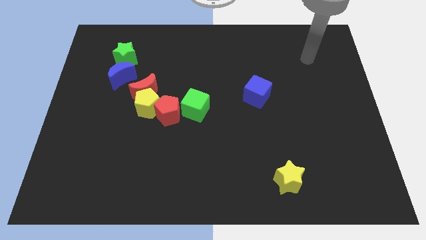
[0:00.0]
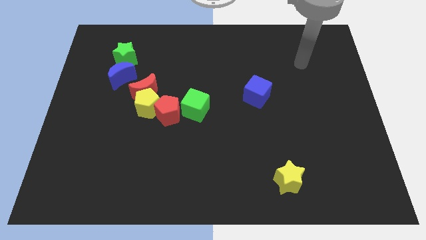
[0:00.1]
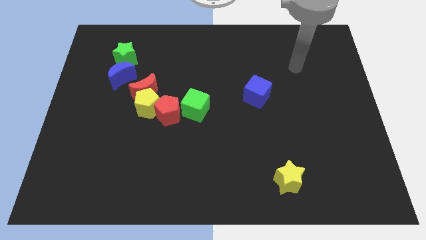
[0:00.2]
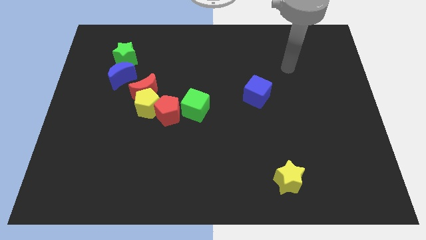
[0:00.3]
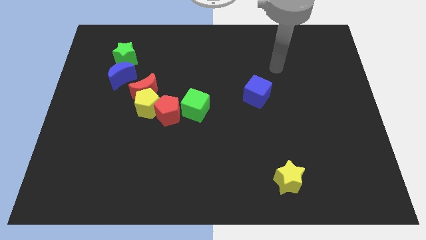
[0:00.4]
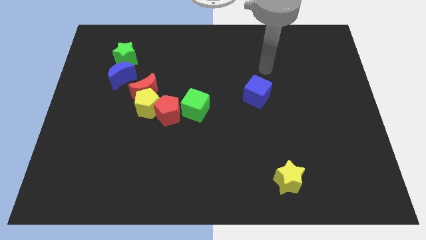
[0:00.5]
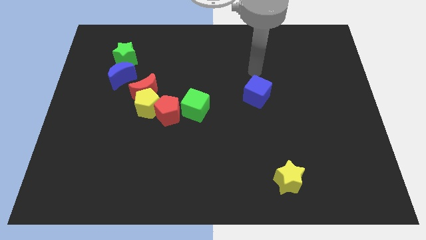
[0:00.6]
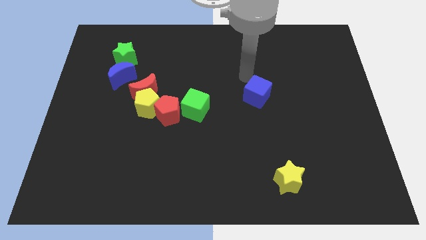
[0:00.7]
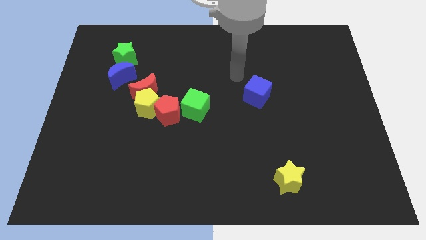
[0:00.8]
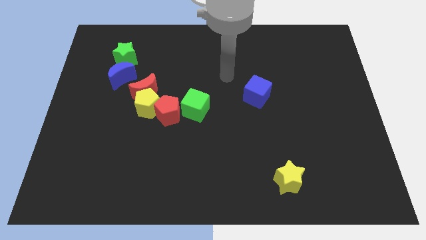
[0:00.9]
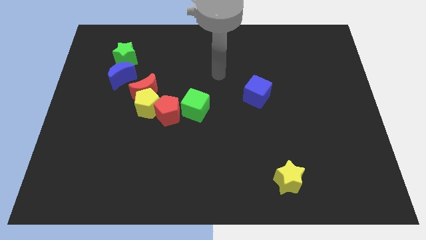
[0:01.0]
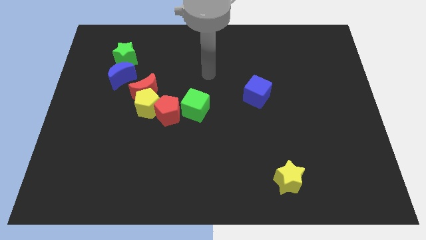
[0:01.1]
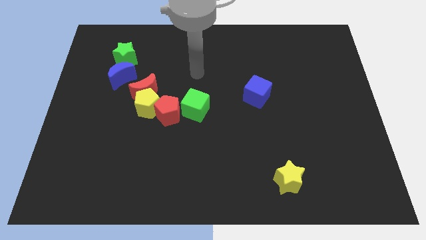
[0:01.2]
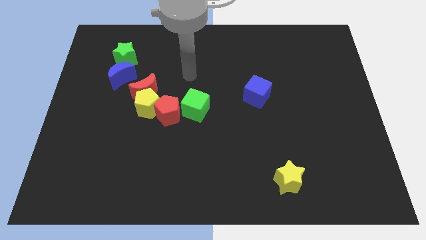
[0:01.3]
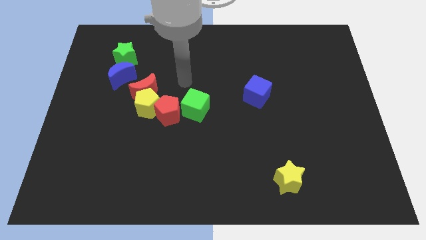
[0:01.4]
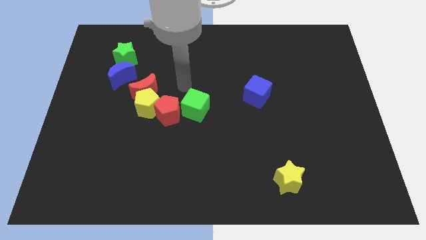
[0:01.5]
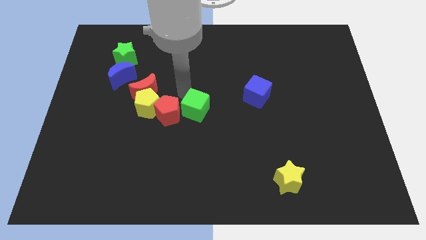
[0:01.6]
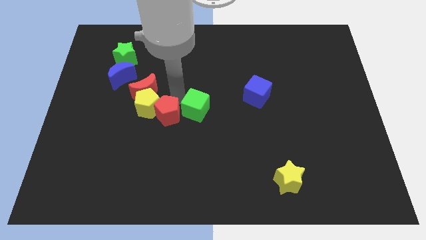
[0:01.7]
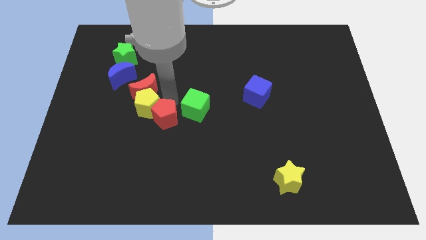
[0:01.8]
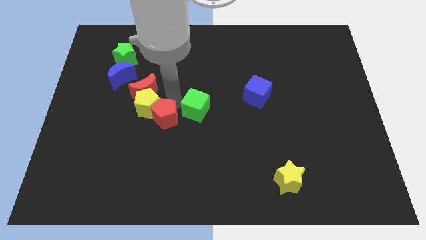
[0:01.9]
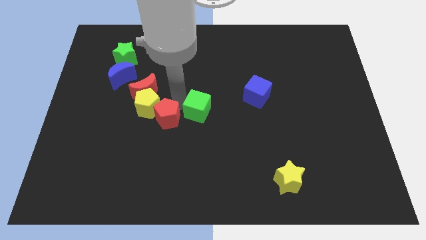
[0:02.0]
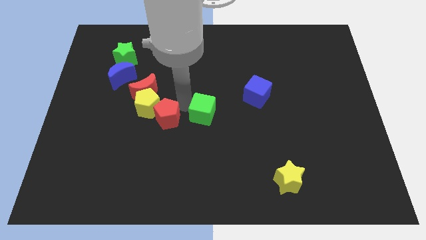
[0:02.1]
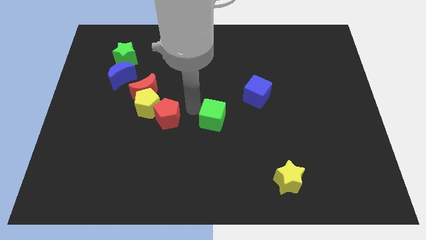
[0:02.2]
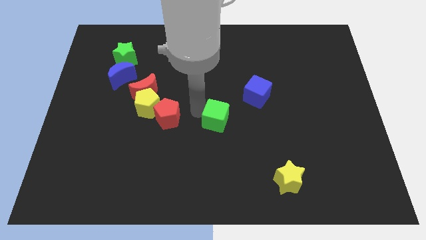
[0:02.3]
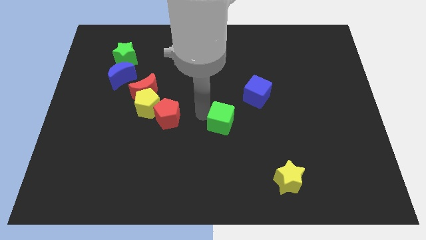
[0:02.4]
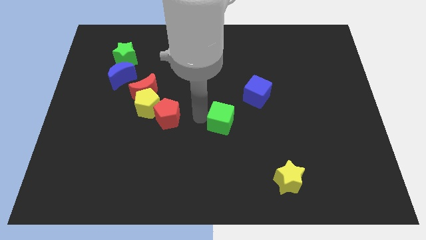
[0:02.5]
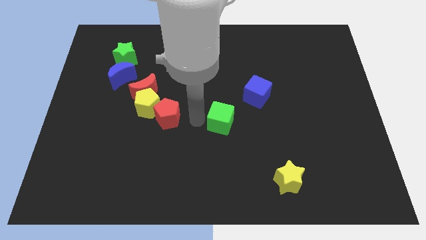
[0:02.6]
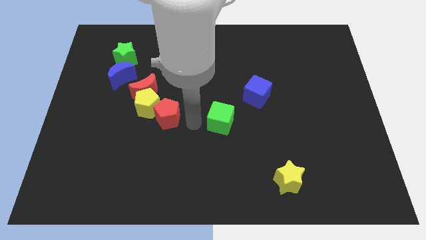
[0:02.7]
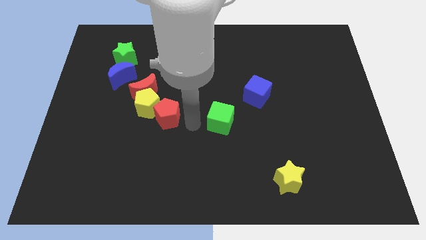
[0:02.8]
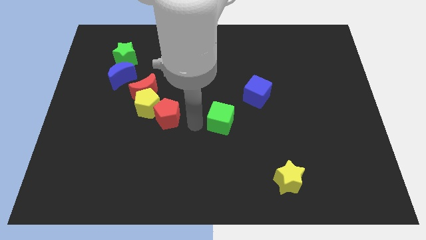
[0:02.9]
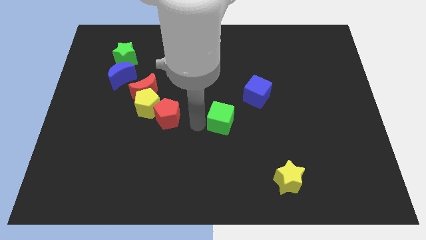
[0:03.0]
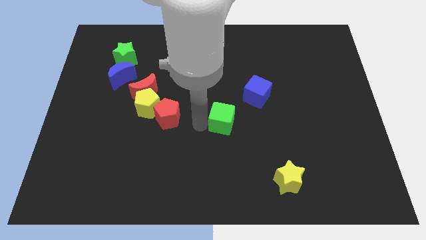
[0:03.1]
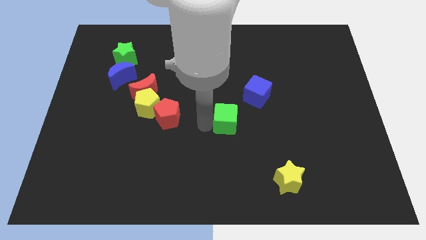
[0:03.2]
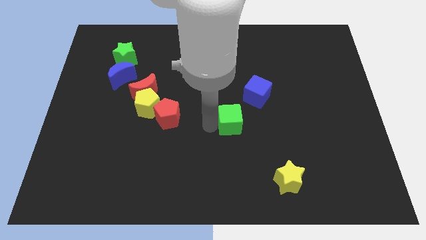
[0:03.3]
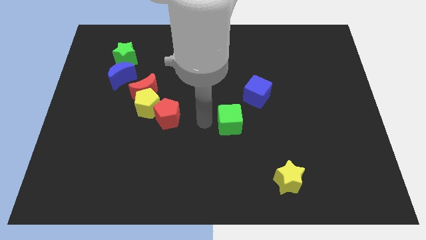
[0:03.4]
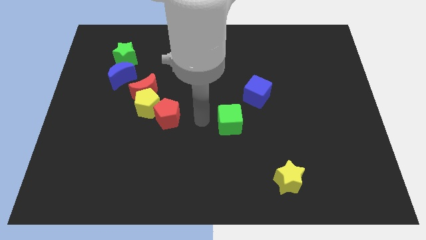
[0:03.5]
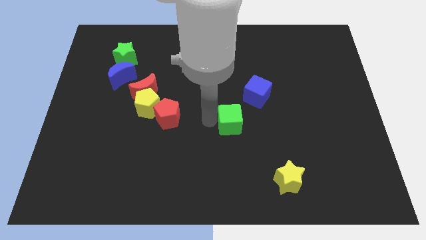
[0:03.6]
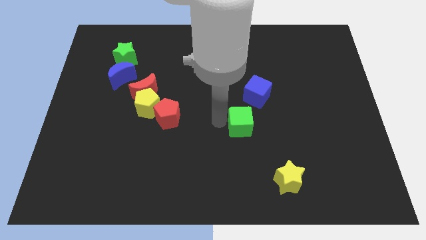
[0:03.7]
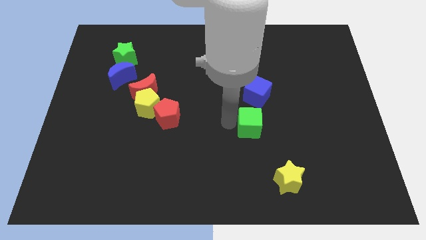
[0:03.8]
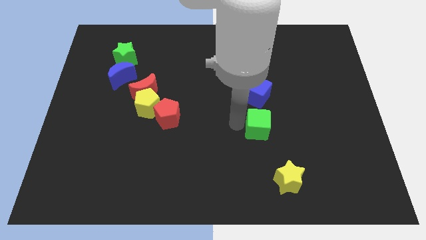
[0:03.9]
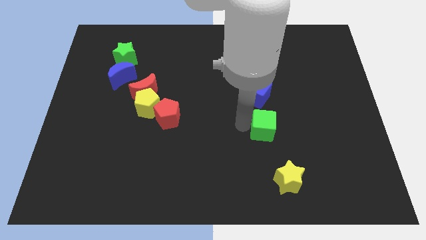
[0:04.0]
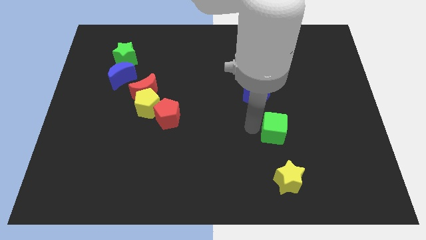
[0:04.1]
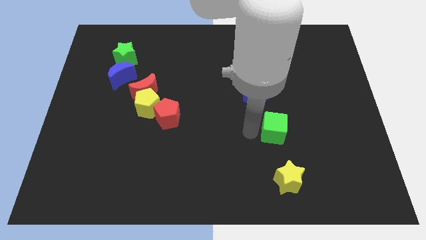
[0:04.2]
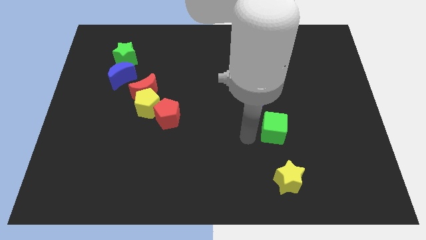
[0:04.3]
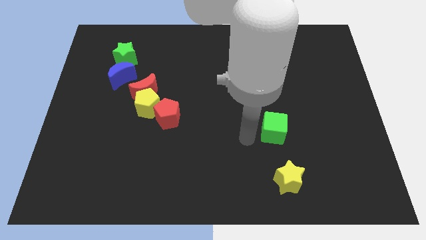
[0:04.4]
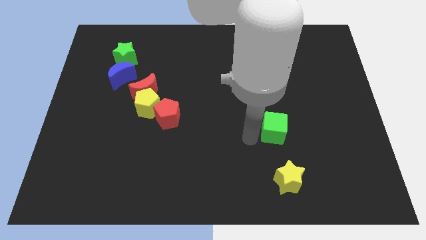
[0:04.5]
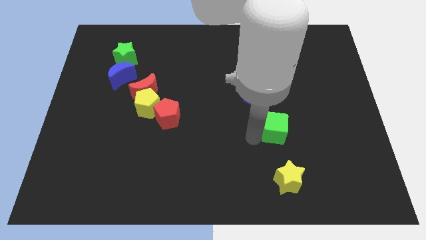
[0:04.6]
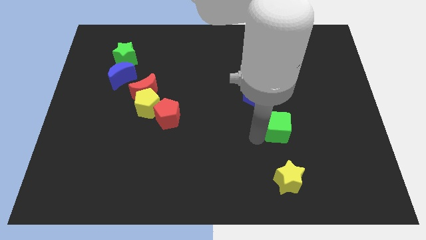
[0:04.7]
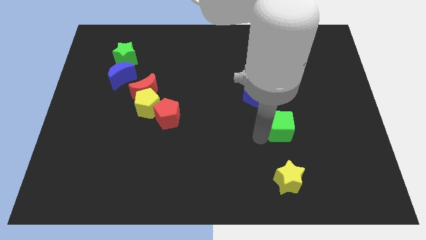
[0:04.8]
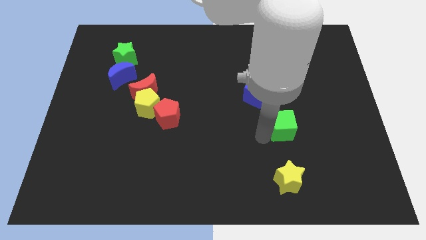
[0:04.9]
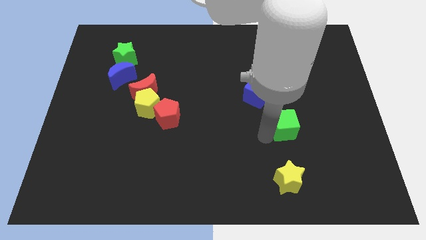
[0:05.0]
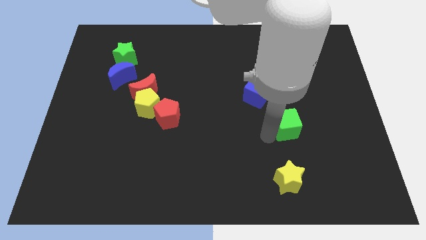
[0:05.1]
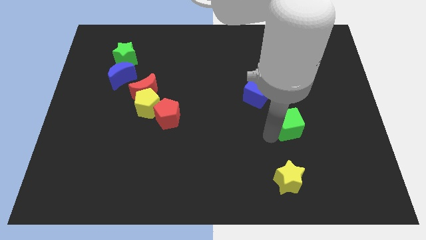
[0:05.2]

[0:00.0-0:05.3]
slide the green cube to the right

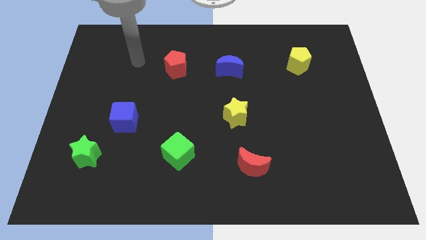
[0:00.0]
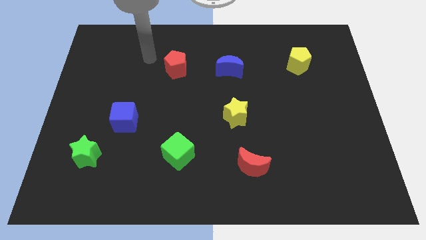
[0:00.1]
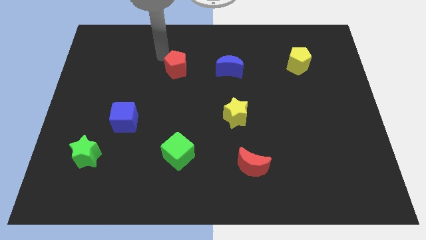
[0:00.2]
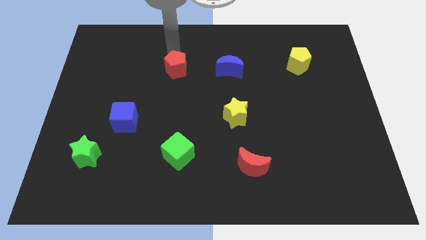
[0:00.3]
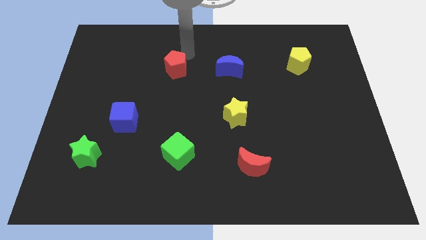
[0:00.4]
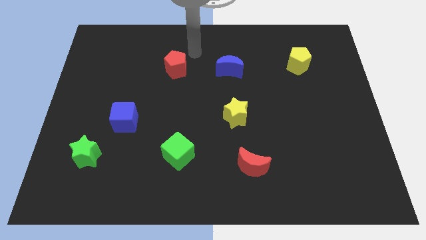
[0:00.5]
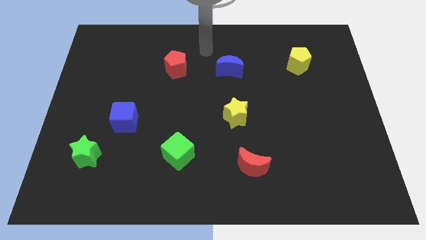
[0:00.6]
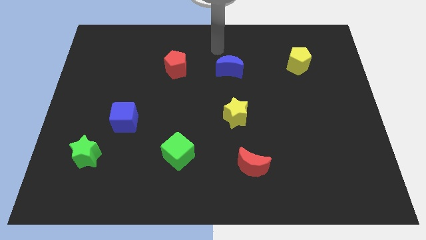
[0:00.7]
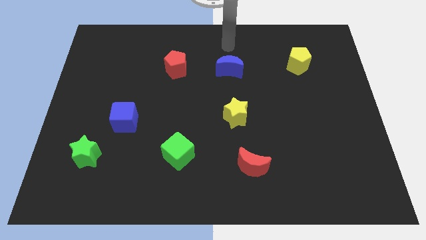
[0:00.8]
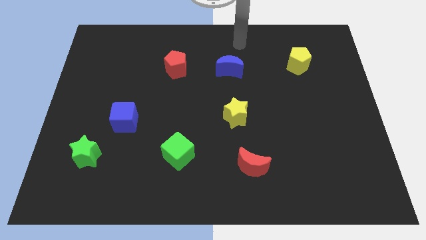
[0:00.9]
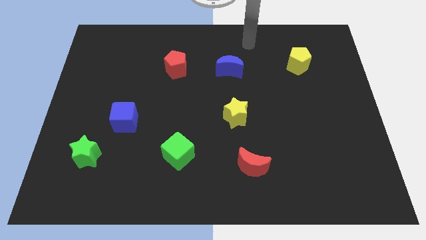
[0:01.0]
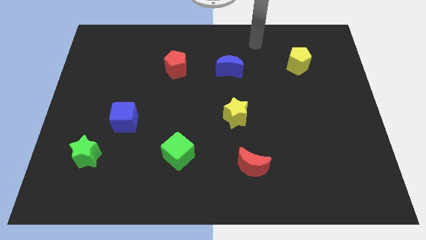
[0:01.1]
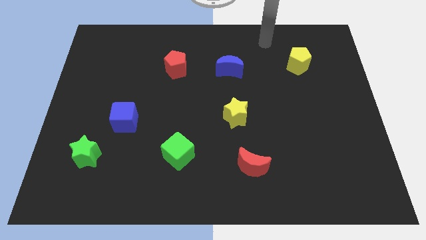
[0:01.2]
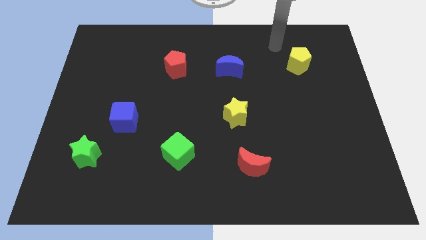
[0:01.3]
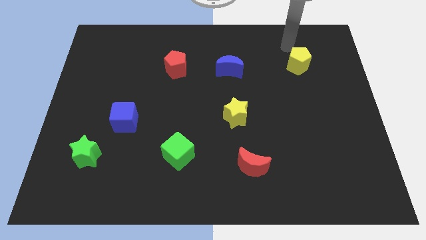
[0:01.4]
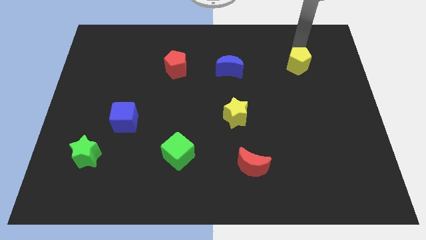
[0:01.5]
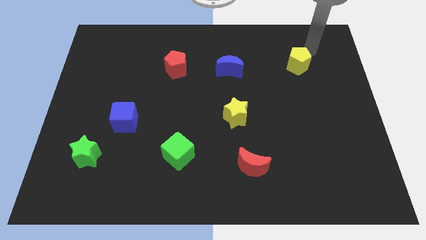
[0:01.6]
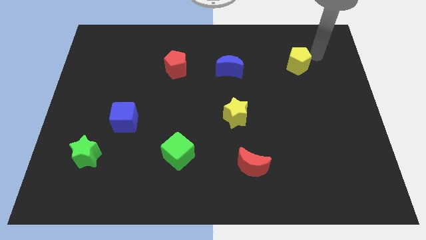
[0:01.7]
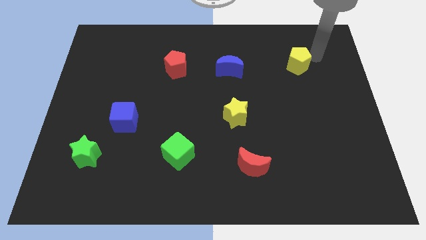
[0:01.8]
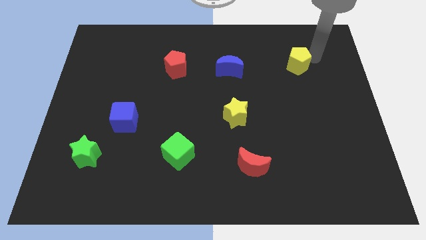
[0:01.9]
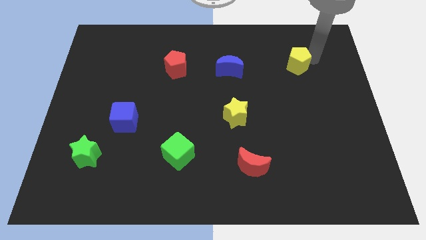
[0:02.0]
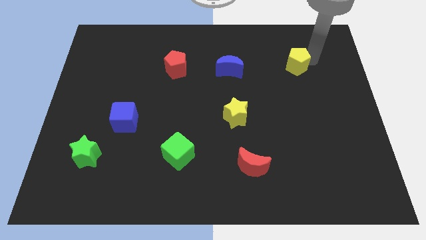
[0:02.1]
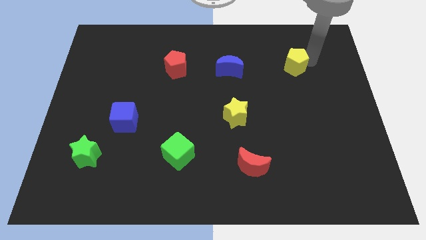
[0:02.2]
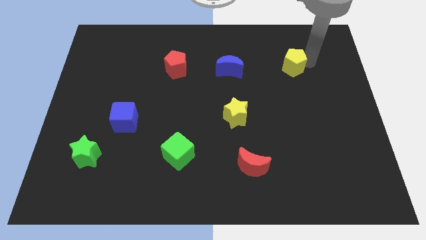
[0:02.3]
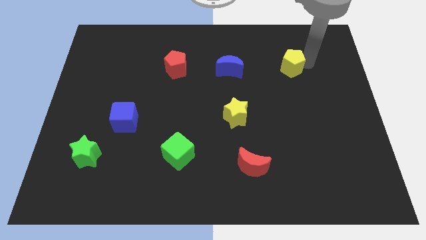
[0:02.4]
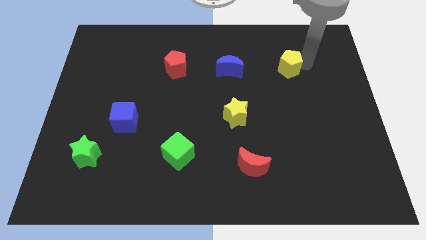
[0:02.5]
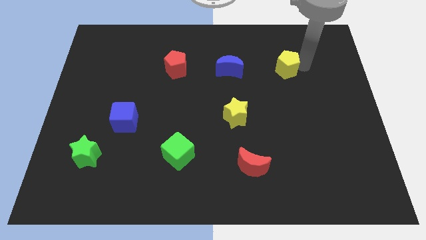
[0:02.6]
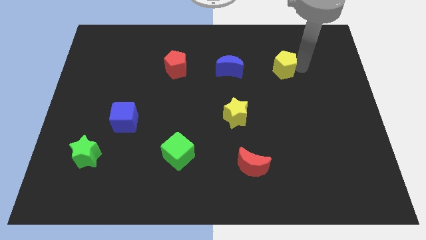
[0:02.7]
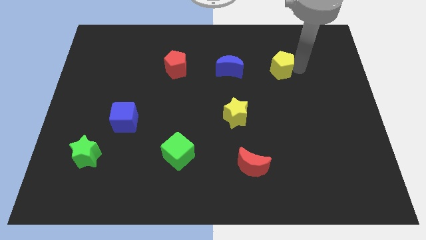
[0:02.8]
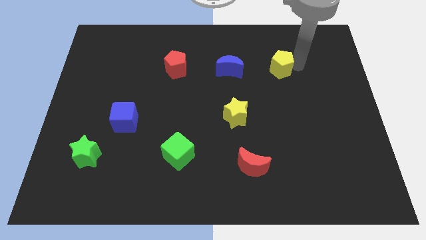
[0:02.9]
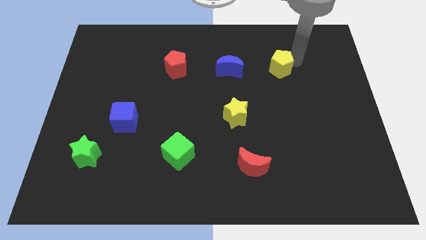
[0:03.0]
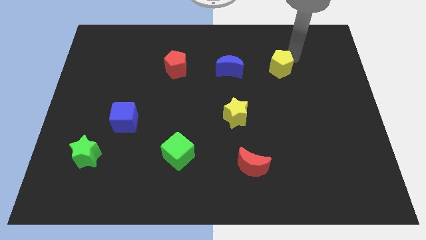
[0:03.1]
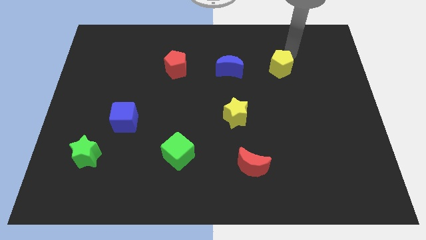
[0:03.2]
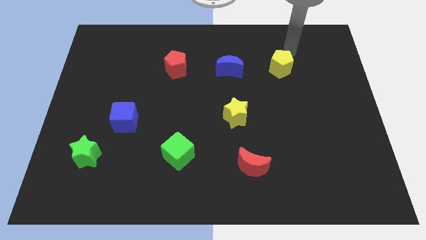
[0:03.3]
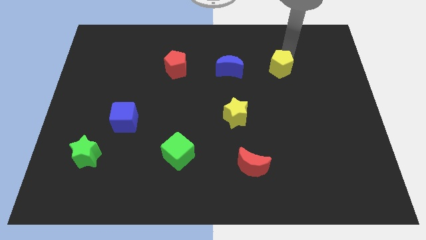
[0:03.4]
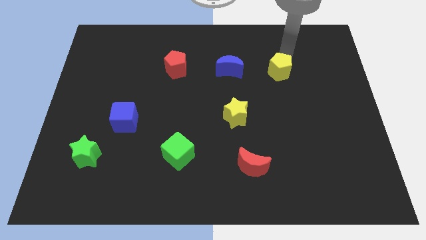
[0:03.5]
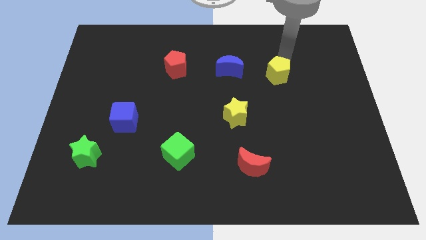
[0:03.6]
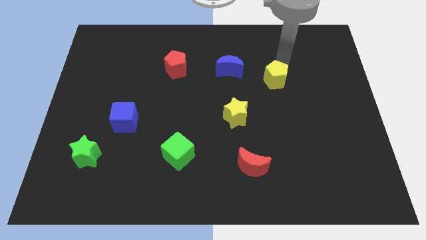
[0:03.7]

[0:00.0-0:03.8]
slightly push the yellow pentagon diagonally downwards and to the left
